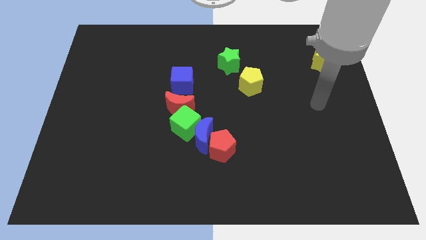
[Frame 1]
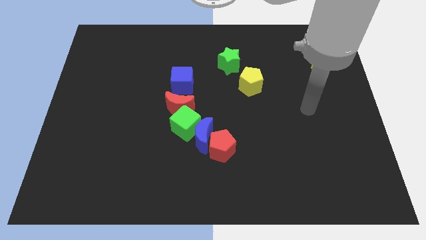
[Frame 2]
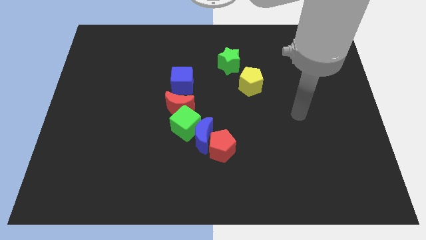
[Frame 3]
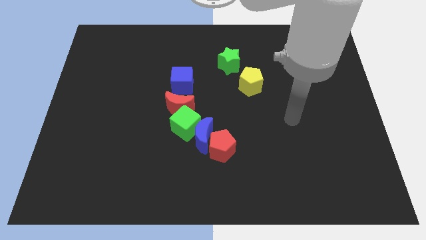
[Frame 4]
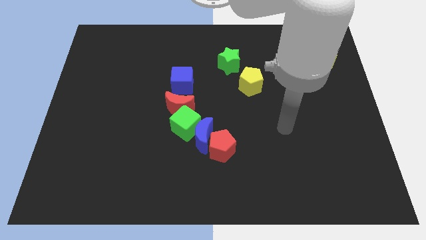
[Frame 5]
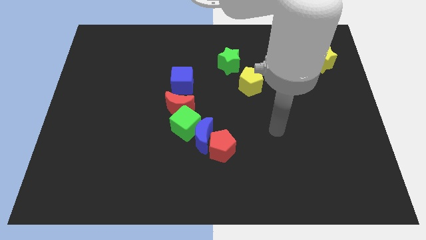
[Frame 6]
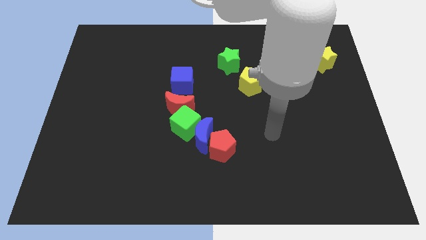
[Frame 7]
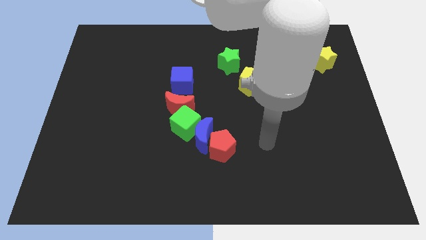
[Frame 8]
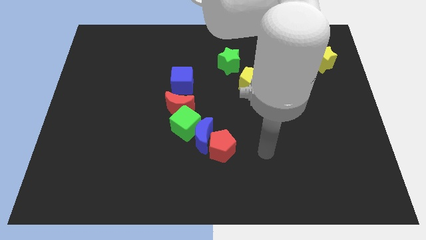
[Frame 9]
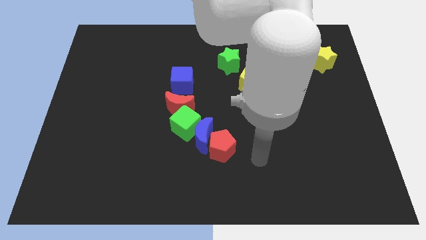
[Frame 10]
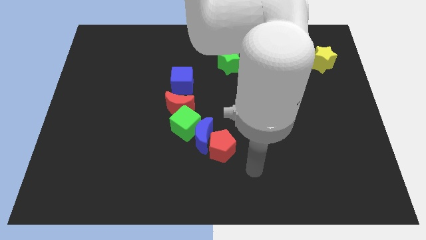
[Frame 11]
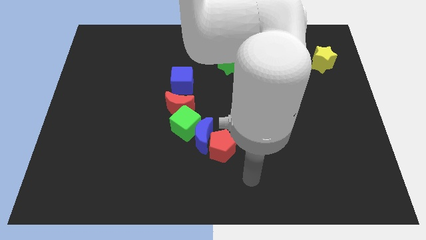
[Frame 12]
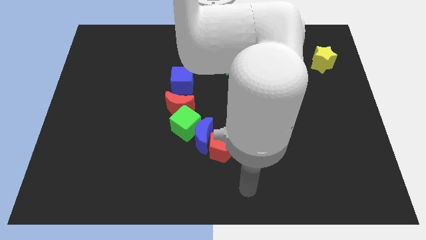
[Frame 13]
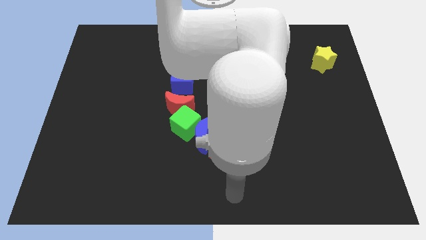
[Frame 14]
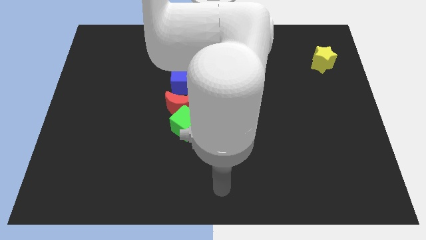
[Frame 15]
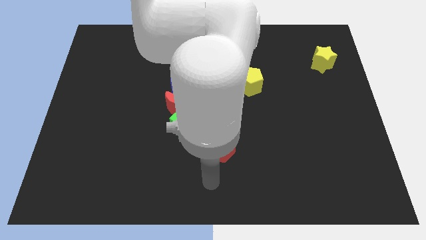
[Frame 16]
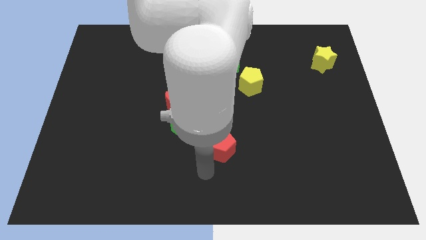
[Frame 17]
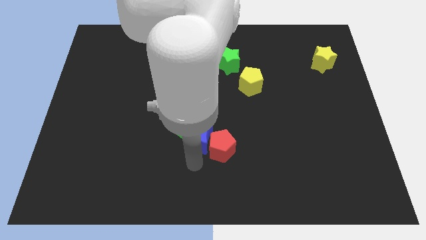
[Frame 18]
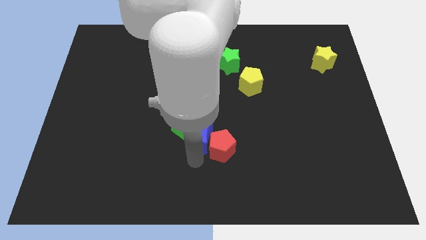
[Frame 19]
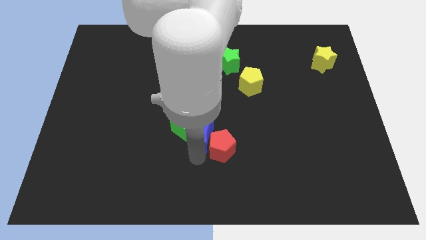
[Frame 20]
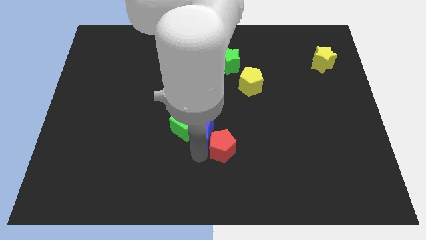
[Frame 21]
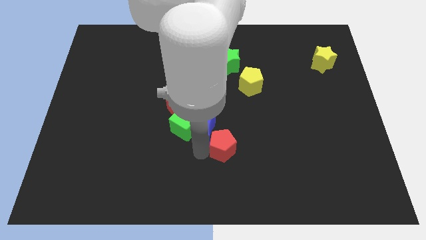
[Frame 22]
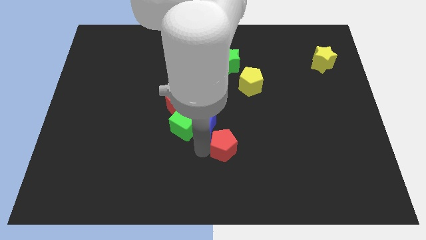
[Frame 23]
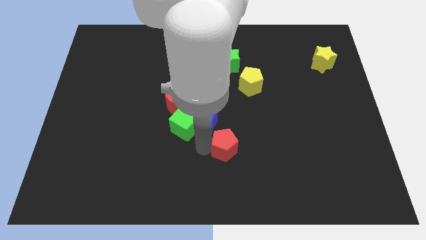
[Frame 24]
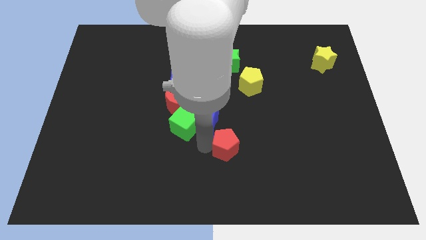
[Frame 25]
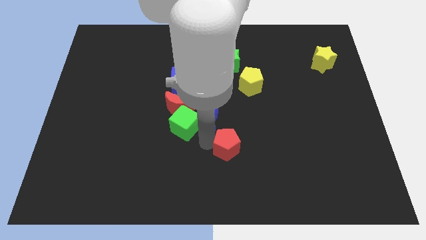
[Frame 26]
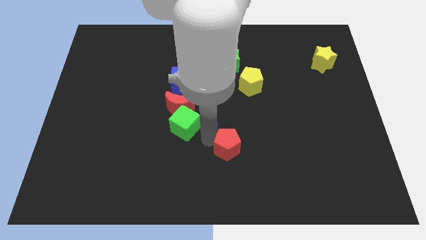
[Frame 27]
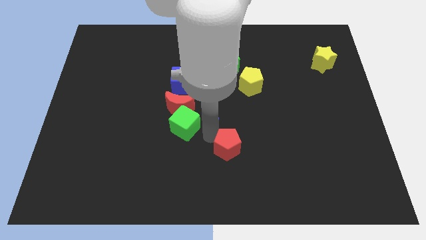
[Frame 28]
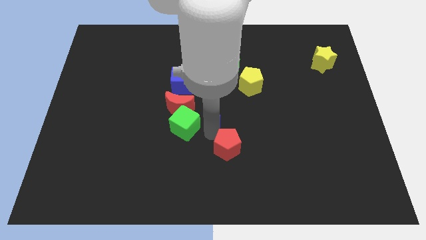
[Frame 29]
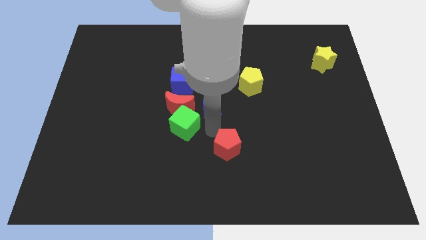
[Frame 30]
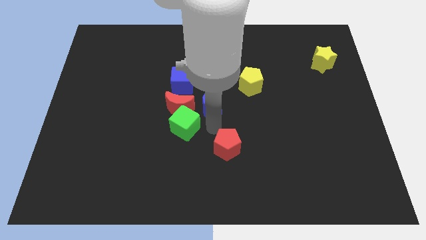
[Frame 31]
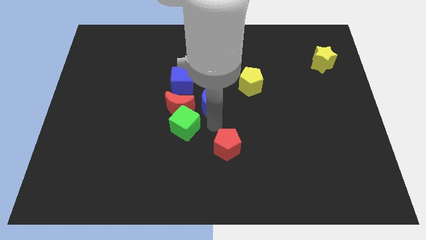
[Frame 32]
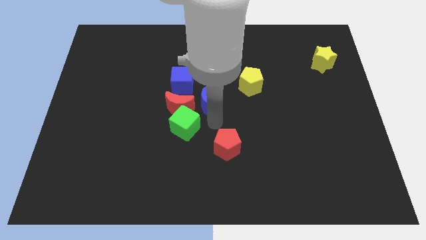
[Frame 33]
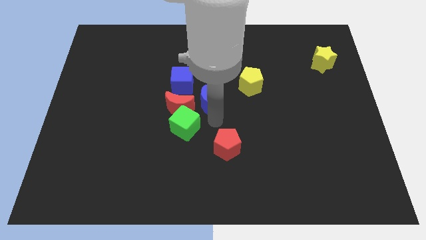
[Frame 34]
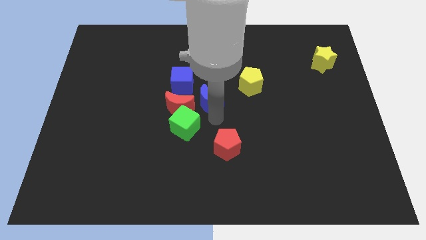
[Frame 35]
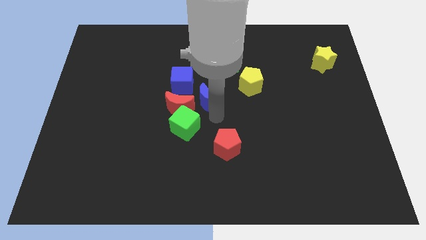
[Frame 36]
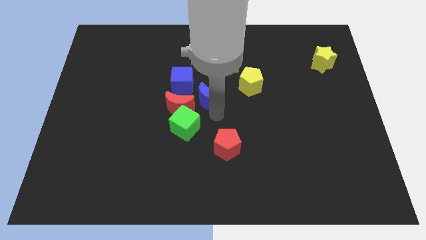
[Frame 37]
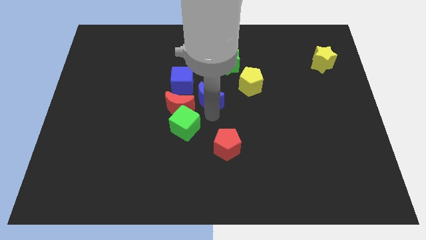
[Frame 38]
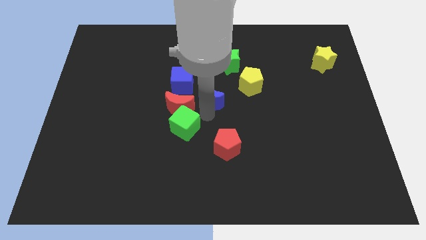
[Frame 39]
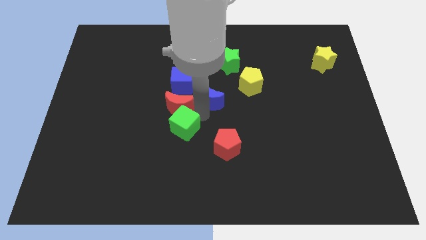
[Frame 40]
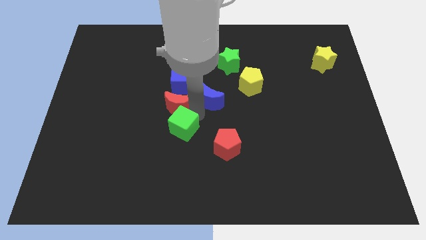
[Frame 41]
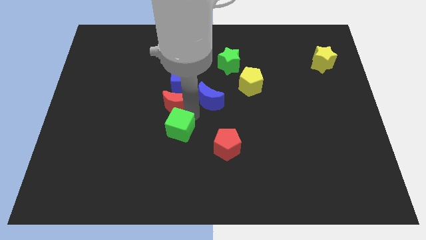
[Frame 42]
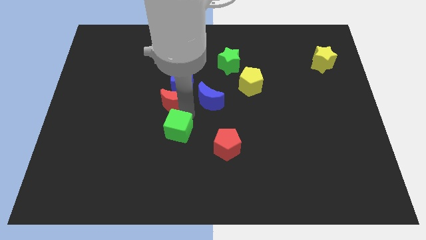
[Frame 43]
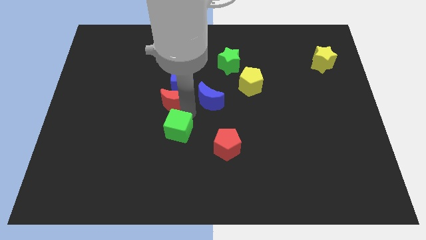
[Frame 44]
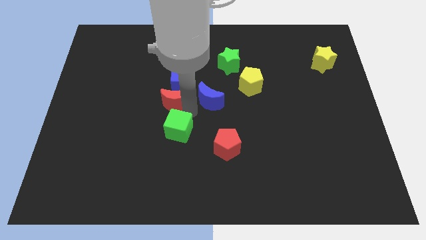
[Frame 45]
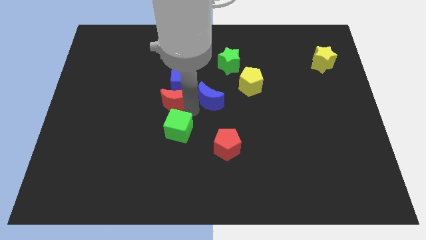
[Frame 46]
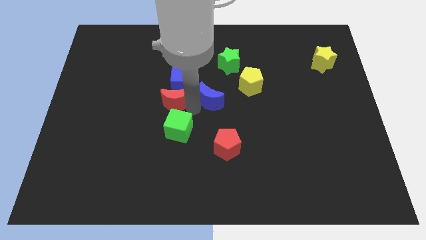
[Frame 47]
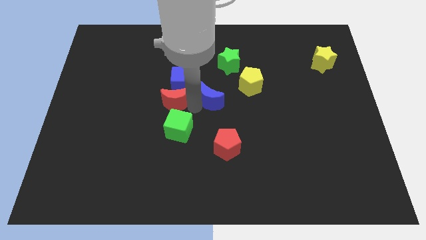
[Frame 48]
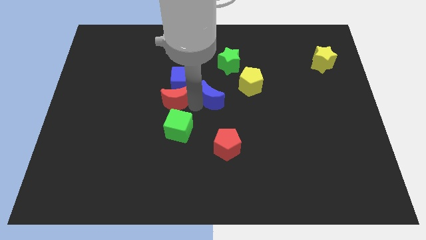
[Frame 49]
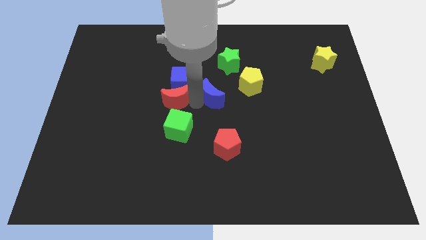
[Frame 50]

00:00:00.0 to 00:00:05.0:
move the blue moon right of the blue cube

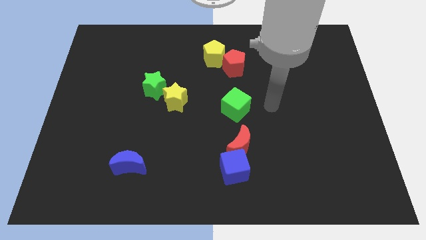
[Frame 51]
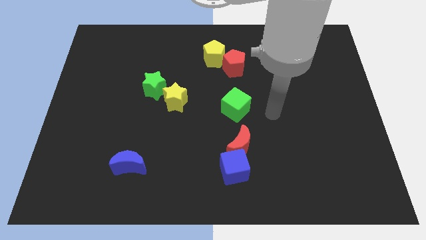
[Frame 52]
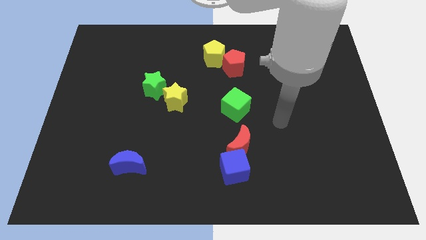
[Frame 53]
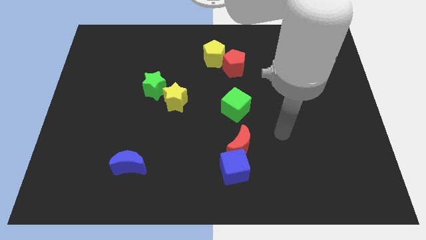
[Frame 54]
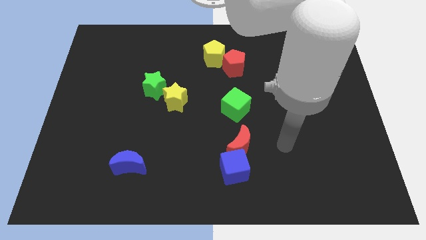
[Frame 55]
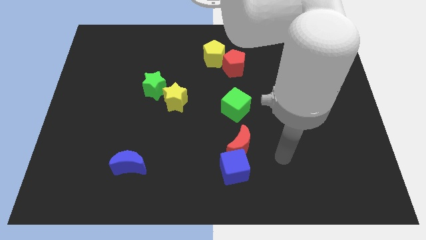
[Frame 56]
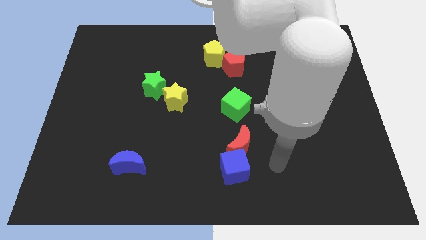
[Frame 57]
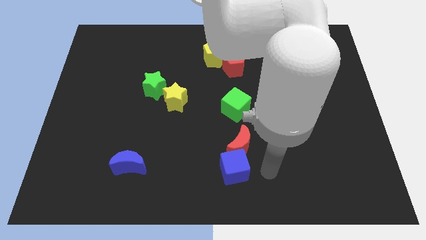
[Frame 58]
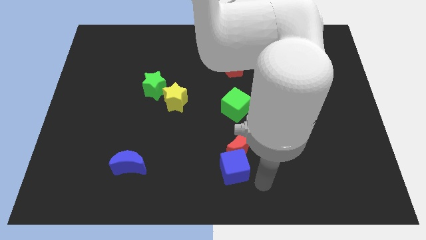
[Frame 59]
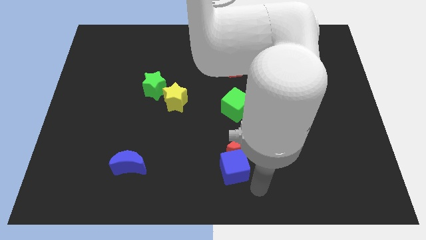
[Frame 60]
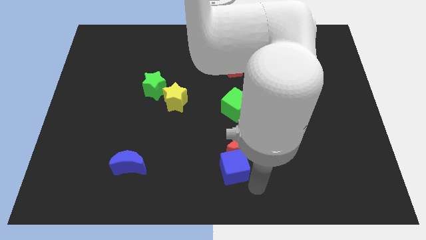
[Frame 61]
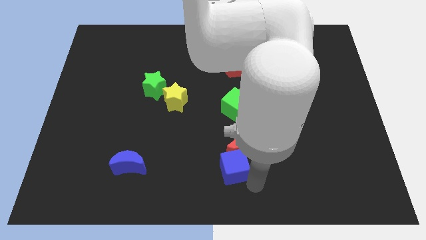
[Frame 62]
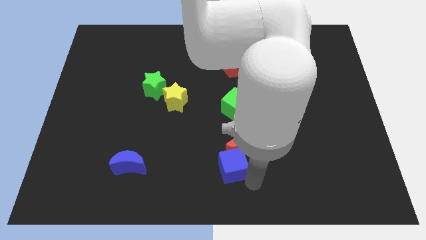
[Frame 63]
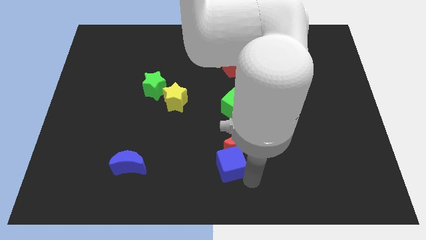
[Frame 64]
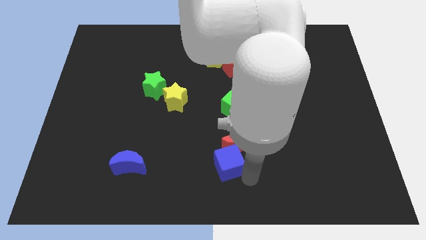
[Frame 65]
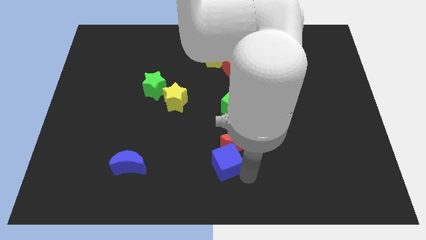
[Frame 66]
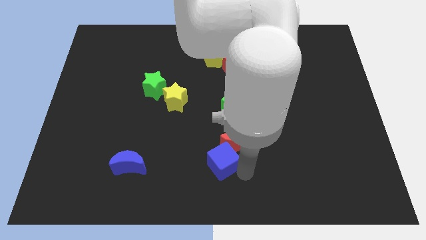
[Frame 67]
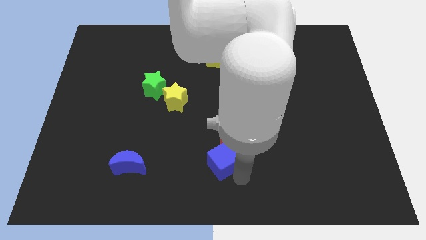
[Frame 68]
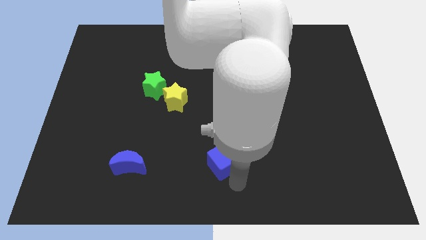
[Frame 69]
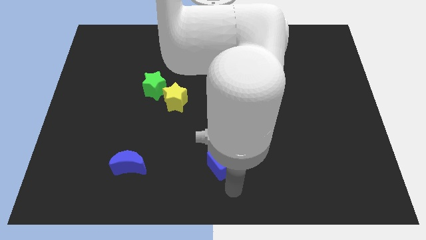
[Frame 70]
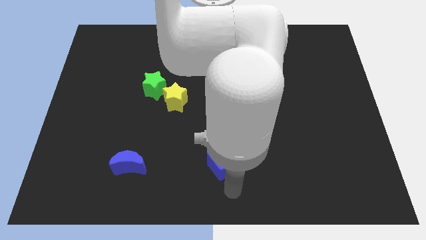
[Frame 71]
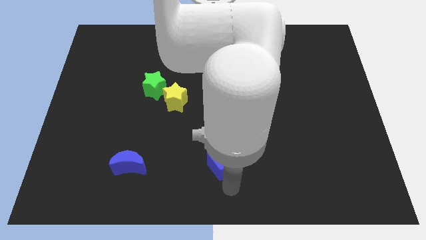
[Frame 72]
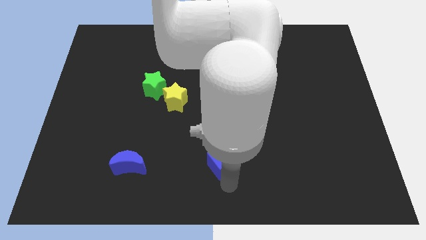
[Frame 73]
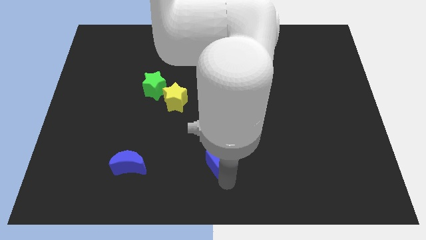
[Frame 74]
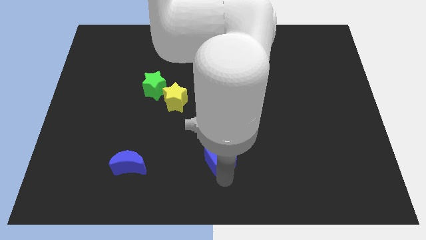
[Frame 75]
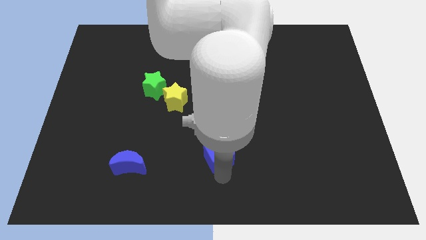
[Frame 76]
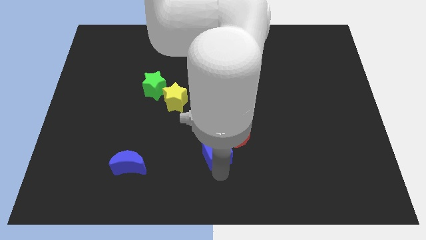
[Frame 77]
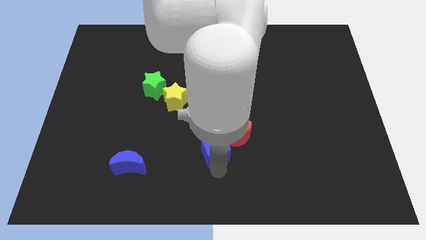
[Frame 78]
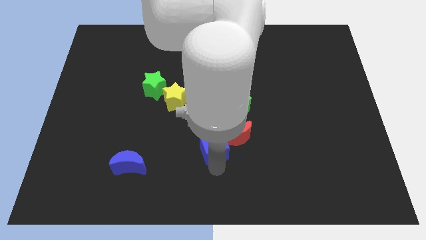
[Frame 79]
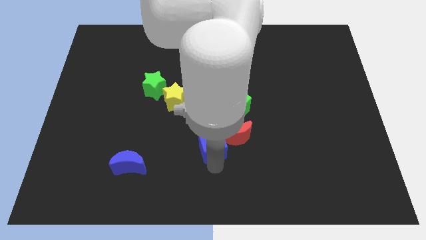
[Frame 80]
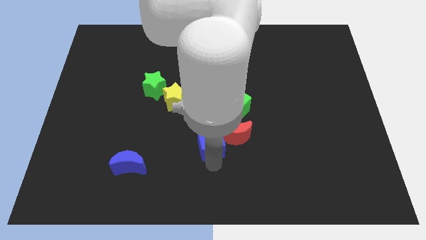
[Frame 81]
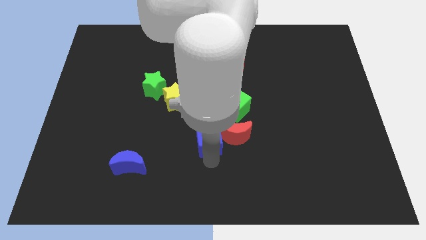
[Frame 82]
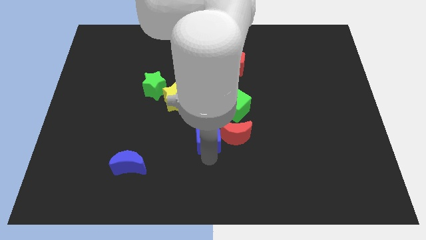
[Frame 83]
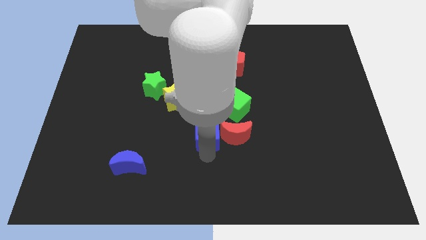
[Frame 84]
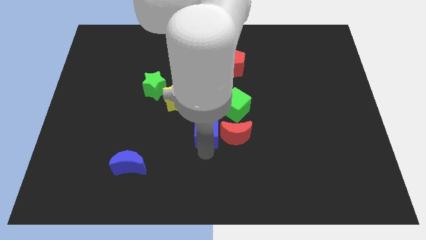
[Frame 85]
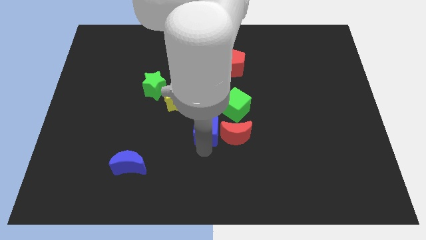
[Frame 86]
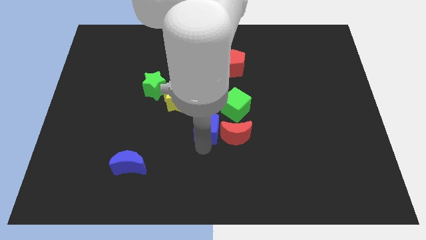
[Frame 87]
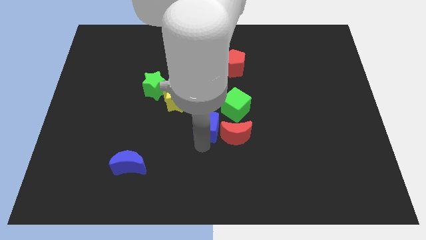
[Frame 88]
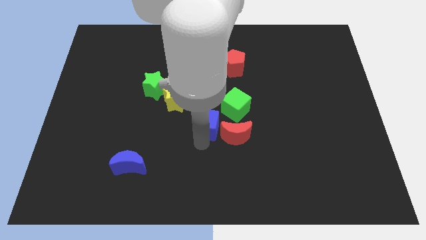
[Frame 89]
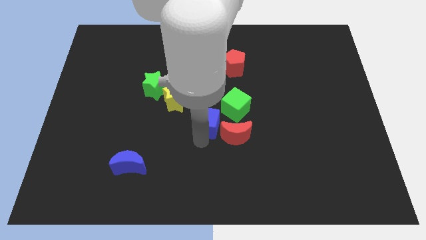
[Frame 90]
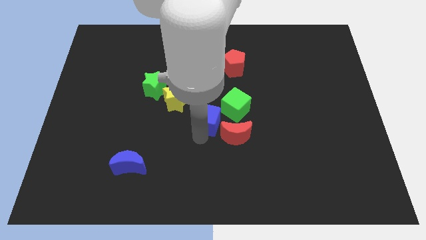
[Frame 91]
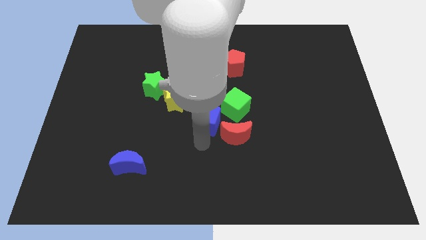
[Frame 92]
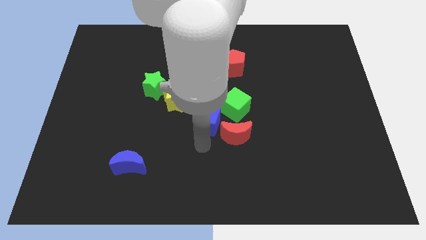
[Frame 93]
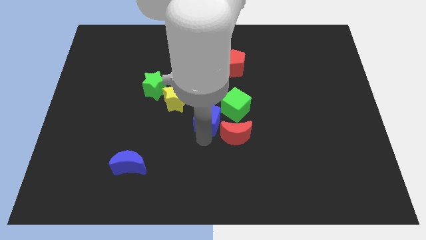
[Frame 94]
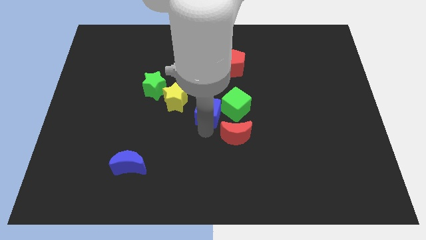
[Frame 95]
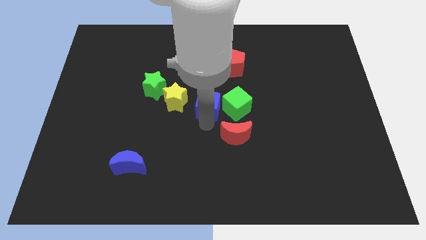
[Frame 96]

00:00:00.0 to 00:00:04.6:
move the blue cube to the top left side of the green cube
